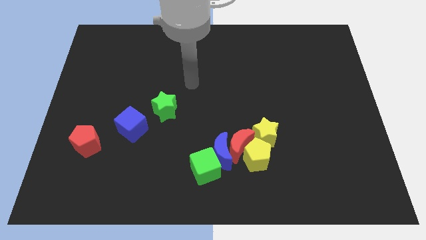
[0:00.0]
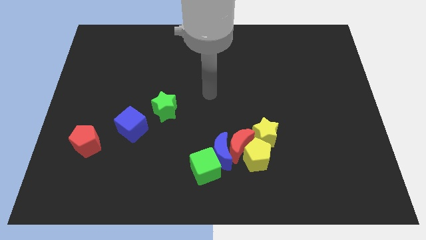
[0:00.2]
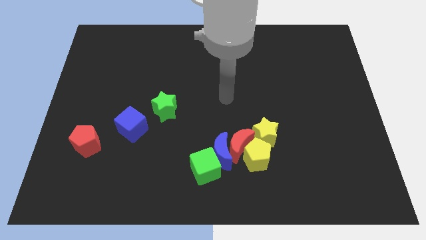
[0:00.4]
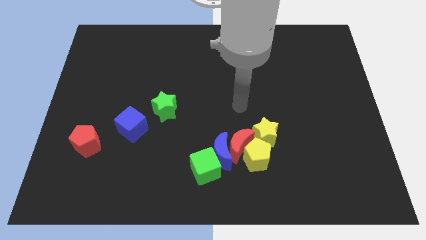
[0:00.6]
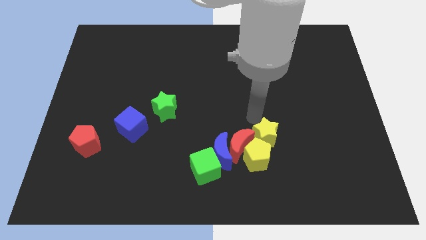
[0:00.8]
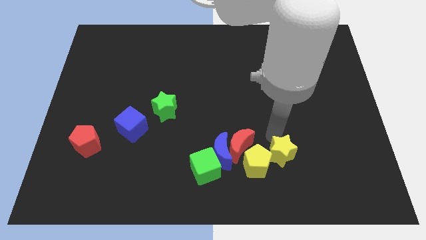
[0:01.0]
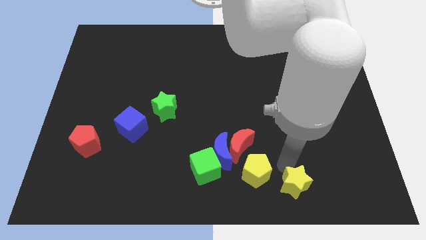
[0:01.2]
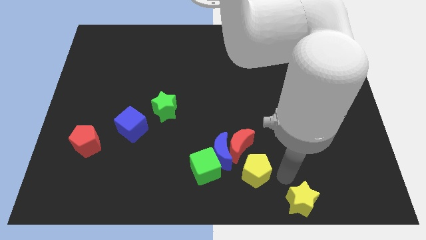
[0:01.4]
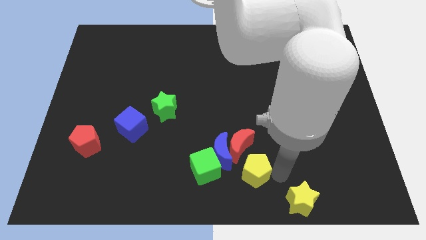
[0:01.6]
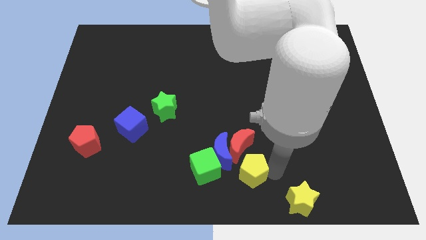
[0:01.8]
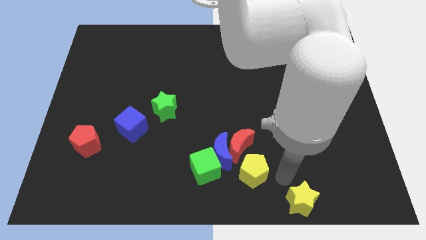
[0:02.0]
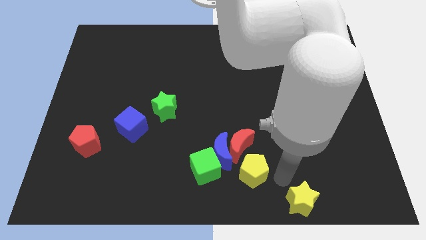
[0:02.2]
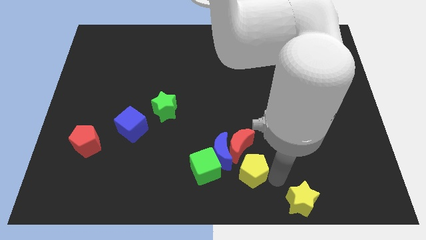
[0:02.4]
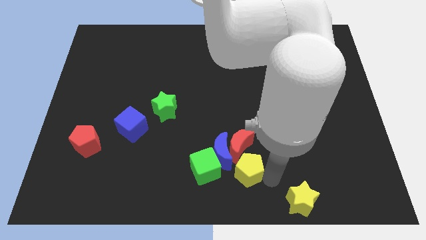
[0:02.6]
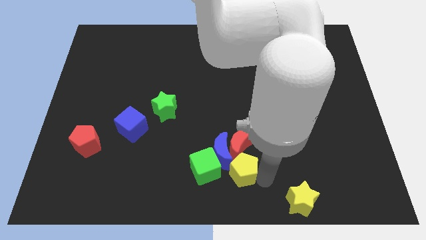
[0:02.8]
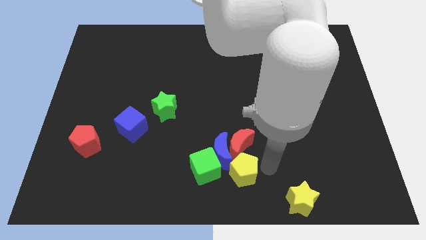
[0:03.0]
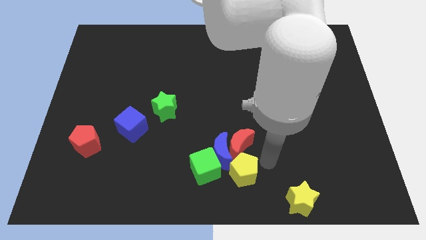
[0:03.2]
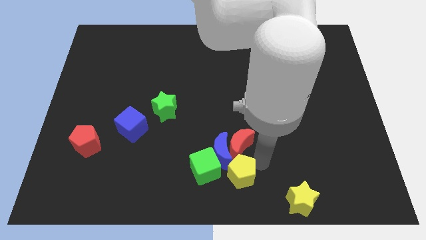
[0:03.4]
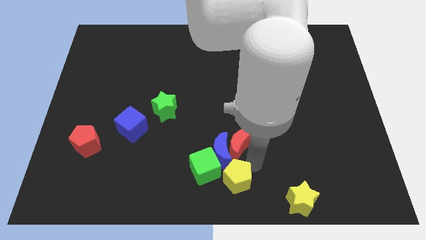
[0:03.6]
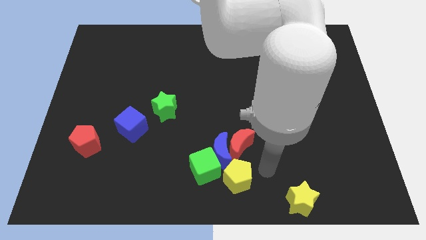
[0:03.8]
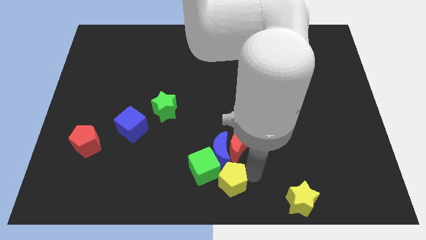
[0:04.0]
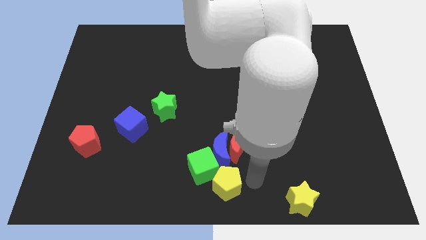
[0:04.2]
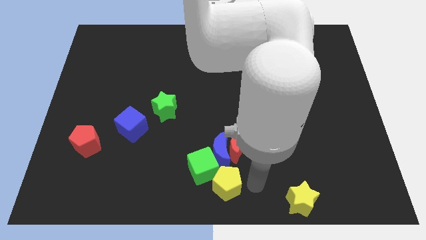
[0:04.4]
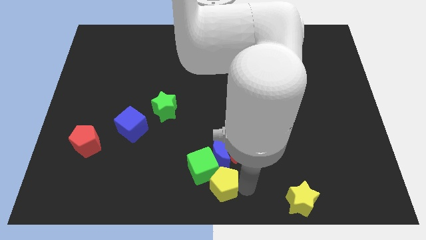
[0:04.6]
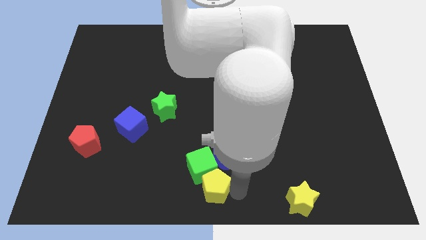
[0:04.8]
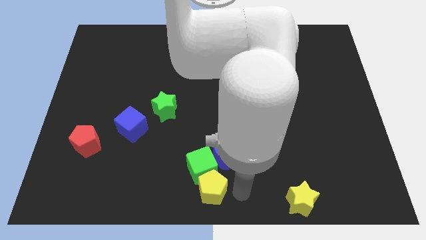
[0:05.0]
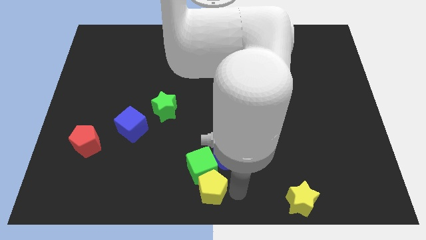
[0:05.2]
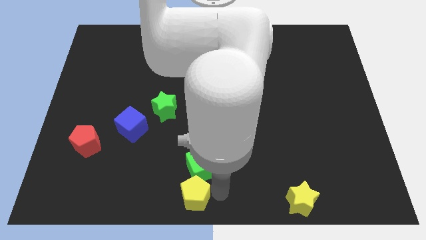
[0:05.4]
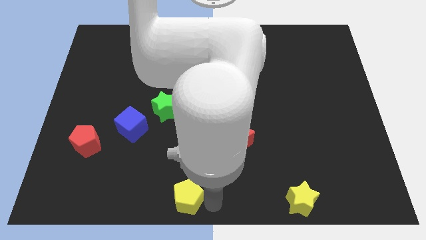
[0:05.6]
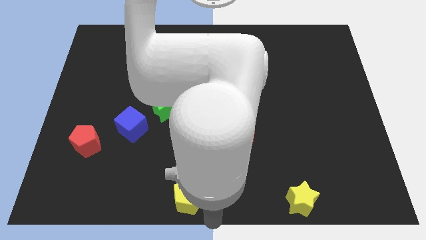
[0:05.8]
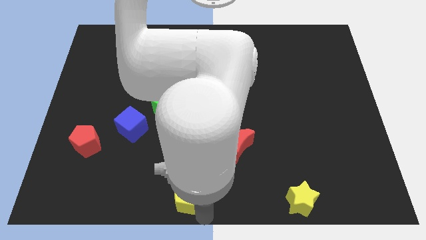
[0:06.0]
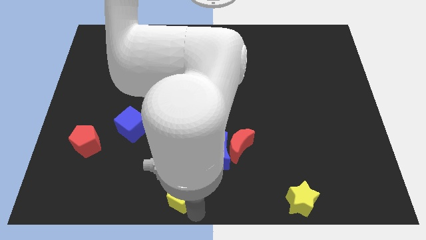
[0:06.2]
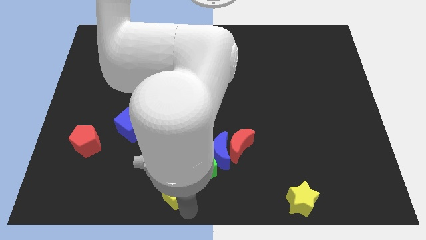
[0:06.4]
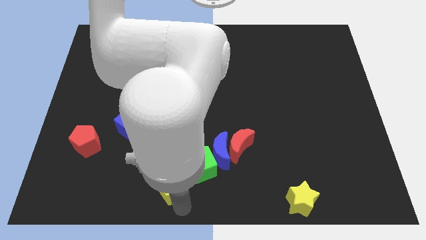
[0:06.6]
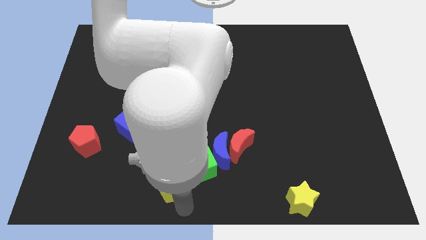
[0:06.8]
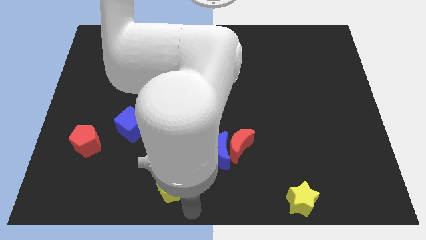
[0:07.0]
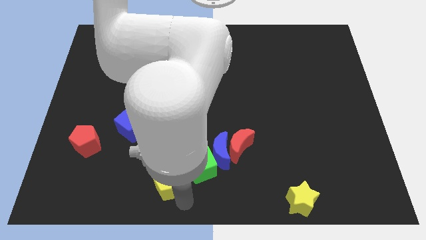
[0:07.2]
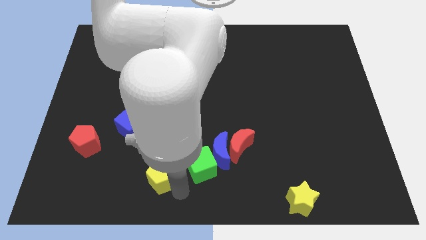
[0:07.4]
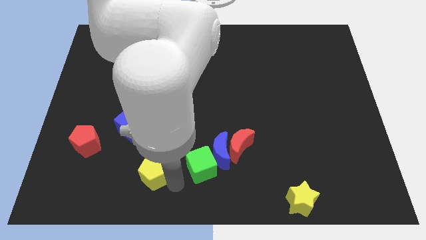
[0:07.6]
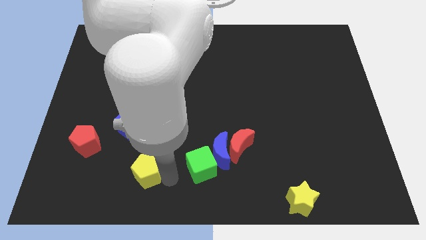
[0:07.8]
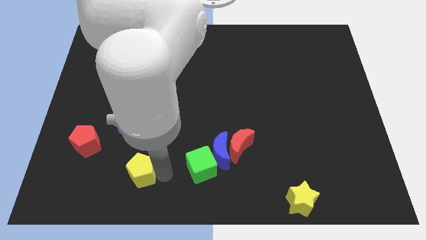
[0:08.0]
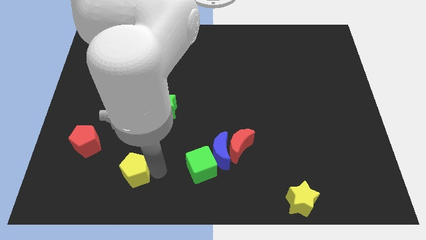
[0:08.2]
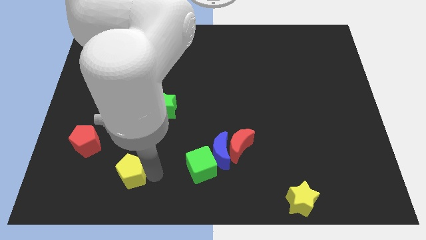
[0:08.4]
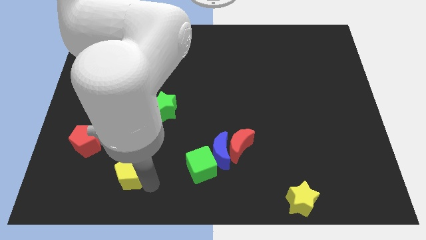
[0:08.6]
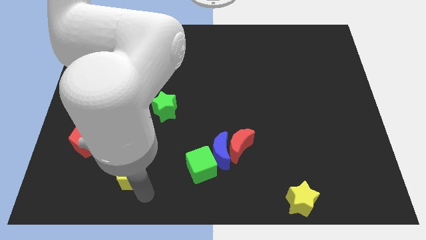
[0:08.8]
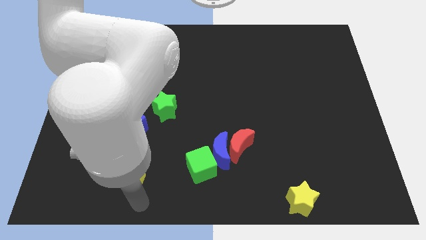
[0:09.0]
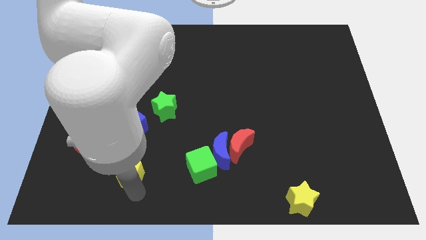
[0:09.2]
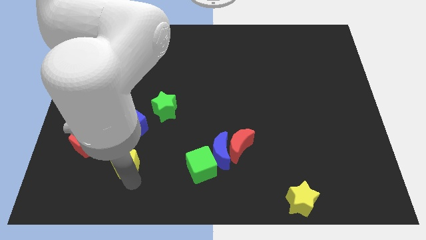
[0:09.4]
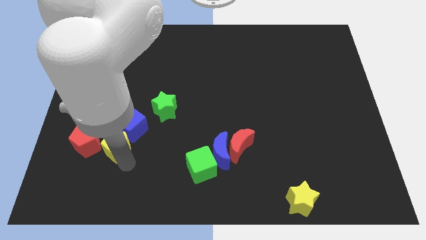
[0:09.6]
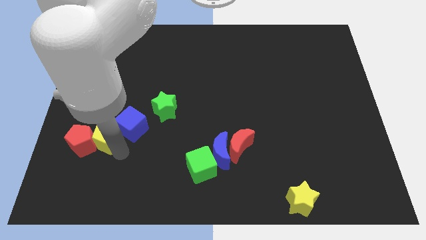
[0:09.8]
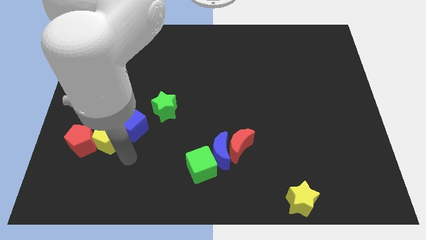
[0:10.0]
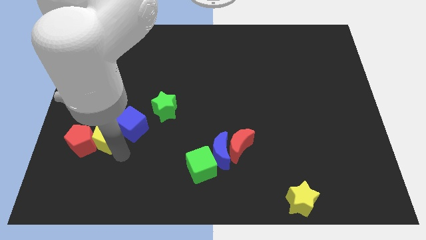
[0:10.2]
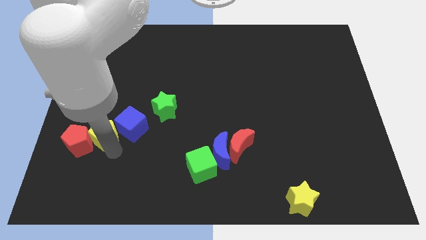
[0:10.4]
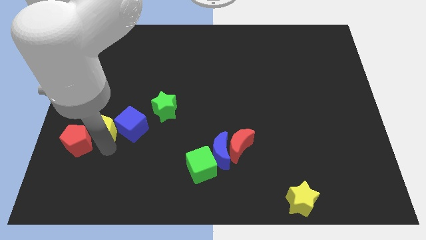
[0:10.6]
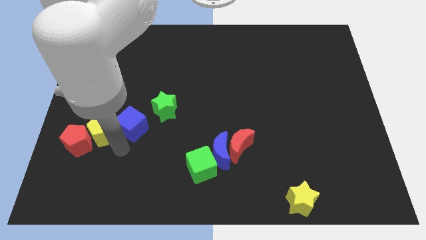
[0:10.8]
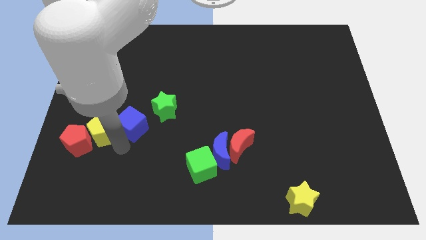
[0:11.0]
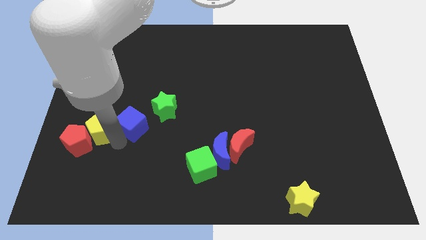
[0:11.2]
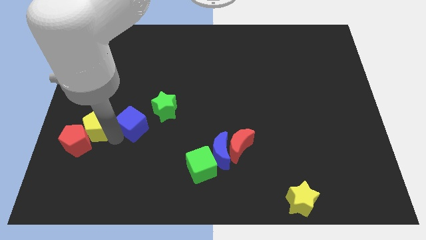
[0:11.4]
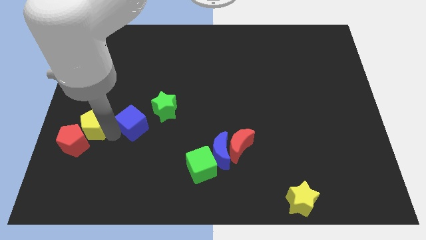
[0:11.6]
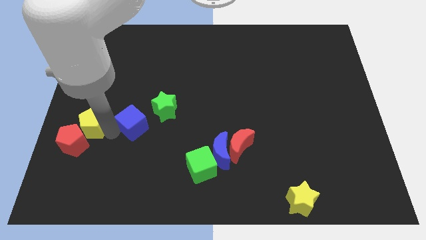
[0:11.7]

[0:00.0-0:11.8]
move the yellow pentagon to the left side of the board

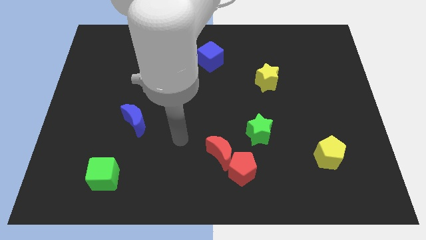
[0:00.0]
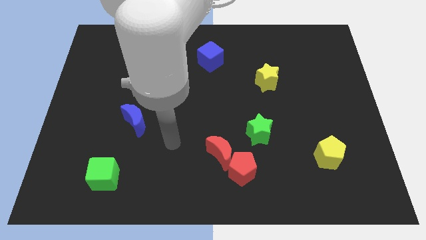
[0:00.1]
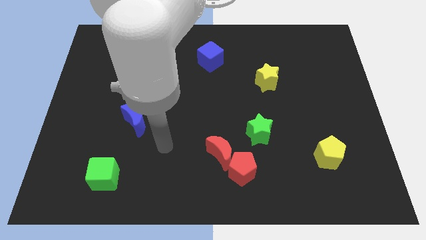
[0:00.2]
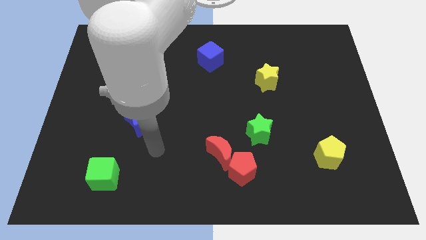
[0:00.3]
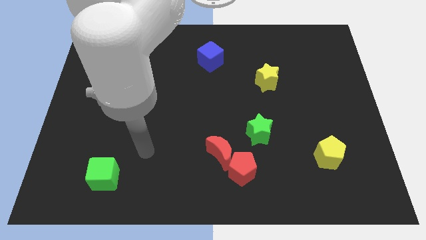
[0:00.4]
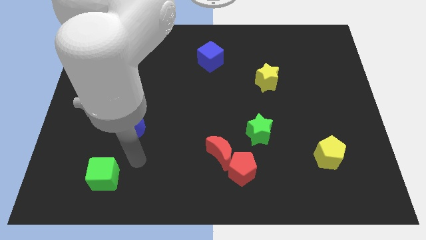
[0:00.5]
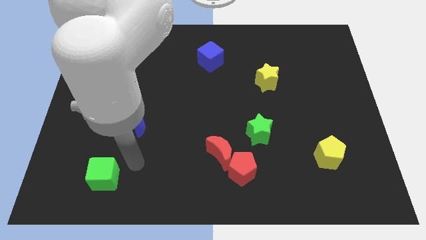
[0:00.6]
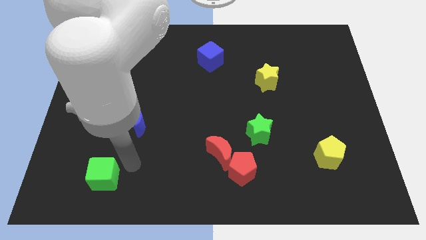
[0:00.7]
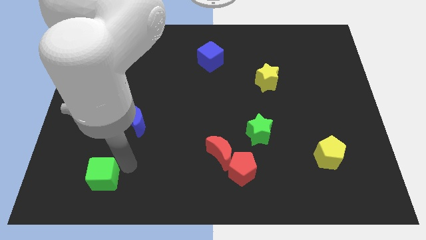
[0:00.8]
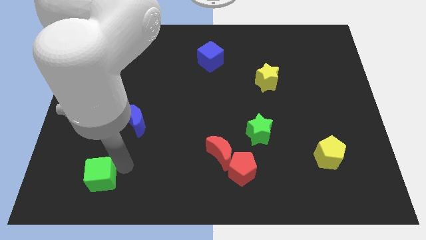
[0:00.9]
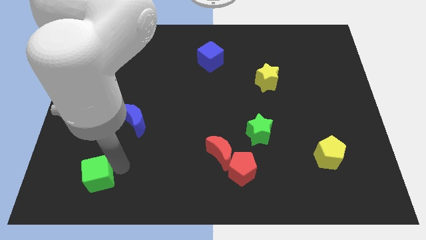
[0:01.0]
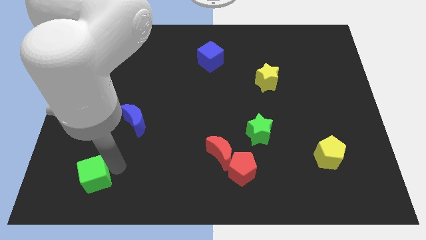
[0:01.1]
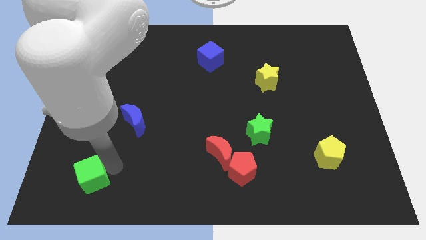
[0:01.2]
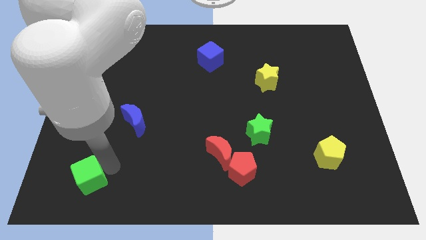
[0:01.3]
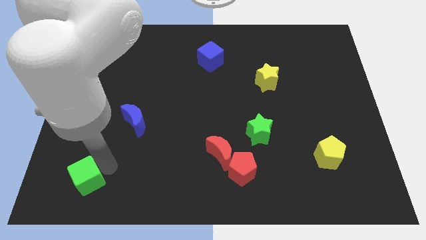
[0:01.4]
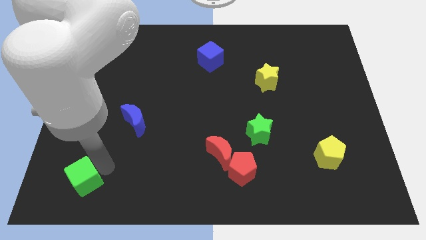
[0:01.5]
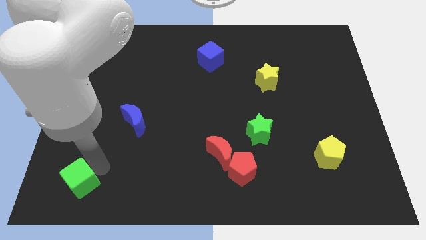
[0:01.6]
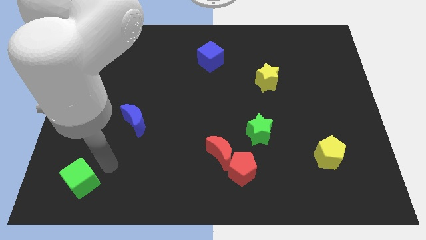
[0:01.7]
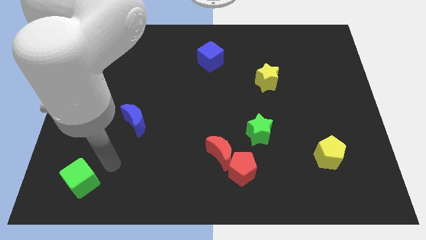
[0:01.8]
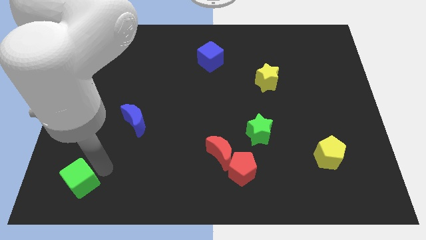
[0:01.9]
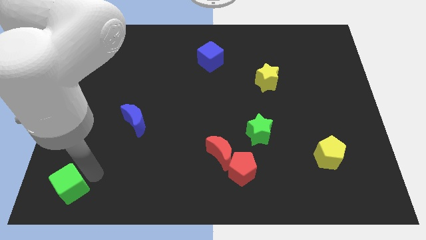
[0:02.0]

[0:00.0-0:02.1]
put the green cube to the bottom left

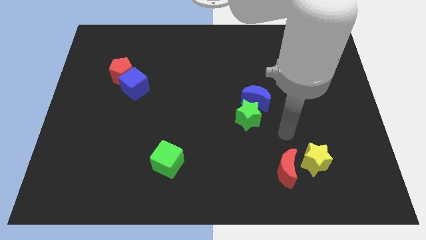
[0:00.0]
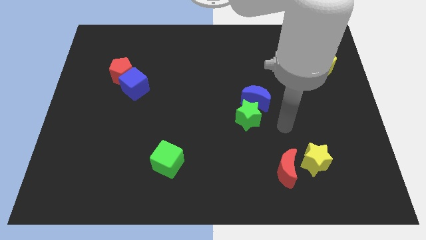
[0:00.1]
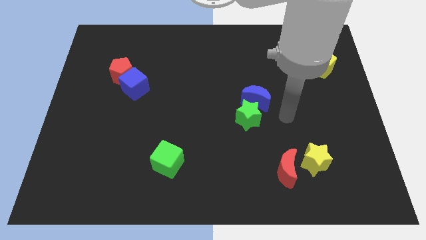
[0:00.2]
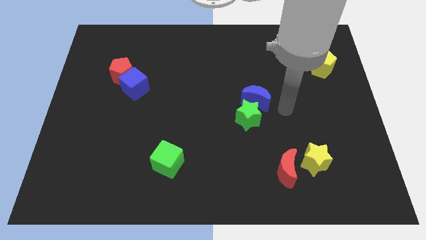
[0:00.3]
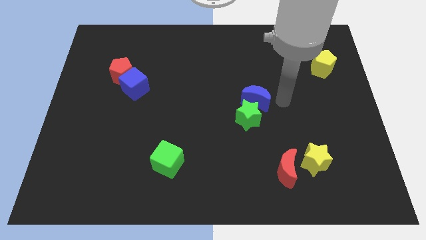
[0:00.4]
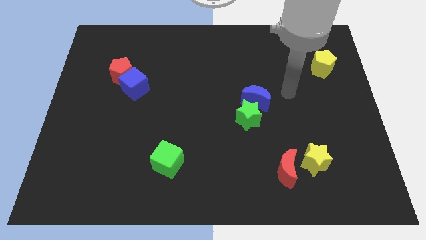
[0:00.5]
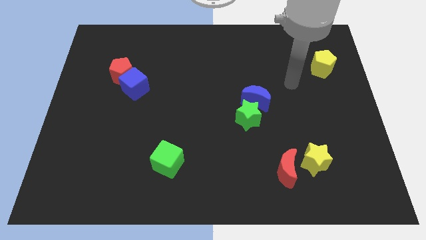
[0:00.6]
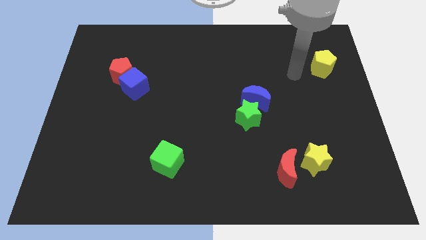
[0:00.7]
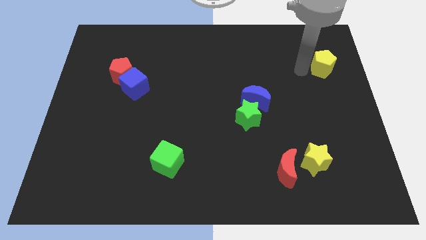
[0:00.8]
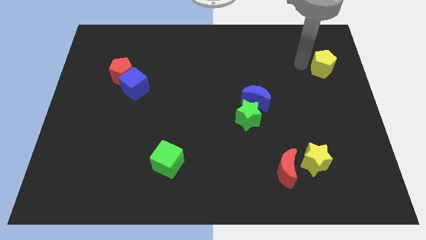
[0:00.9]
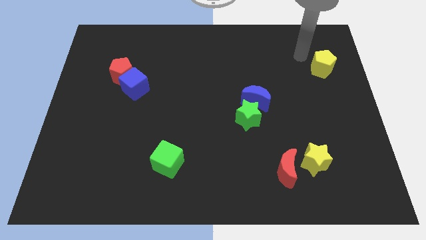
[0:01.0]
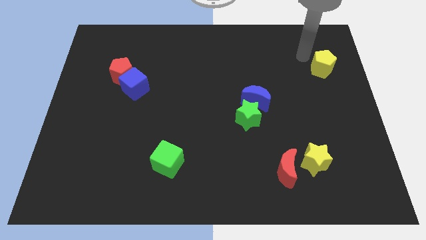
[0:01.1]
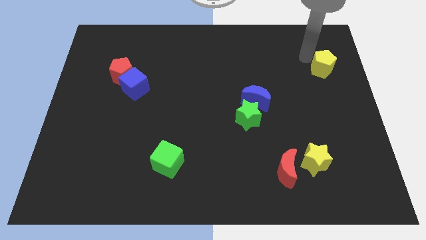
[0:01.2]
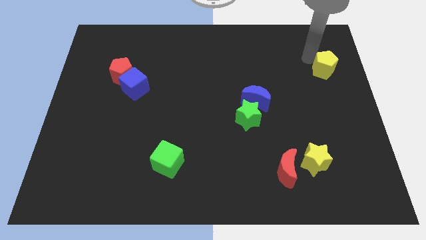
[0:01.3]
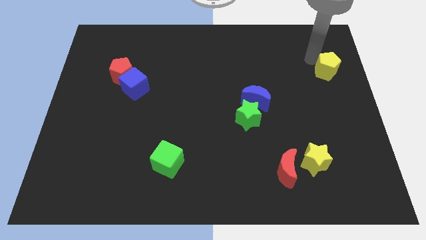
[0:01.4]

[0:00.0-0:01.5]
push the yellow pentagon to the right side
